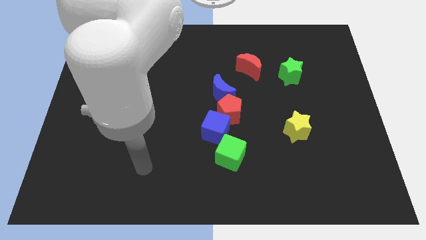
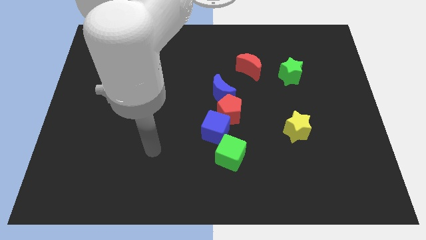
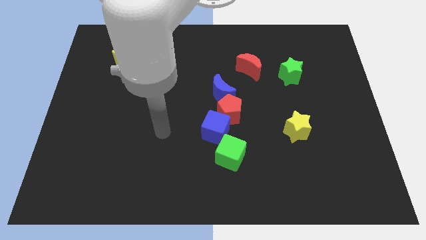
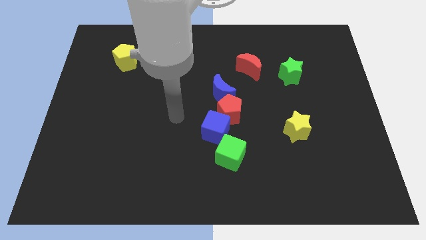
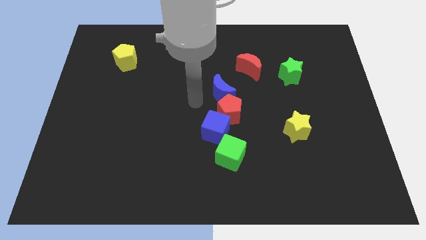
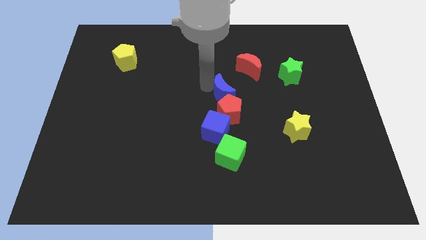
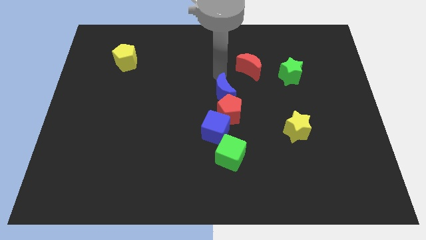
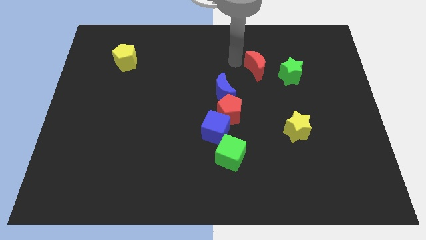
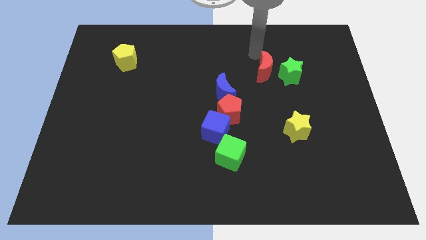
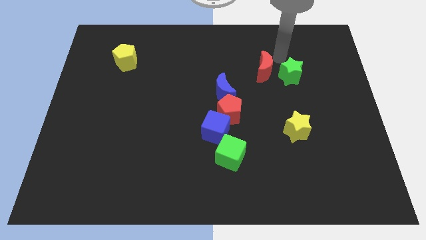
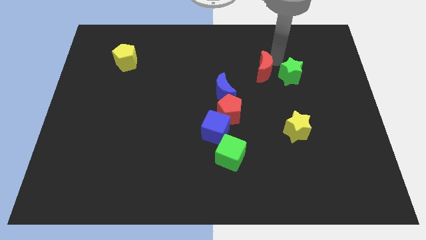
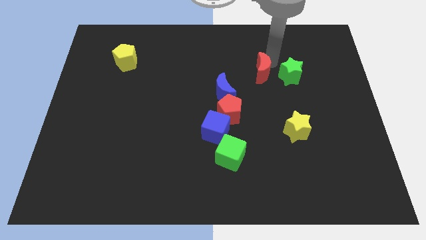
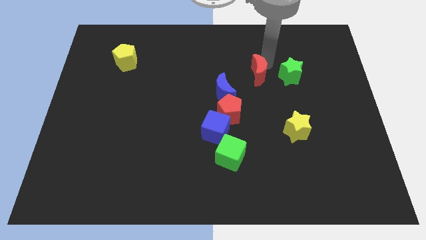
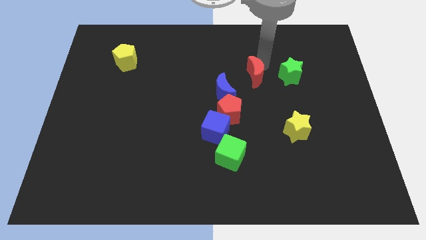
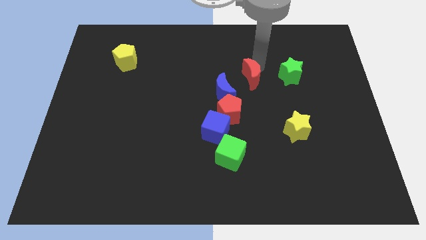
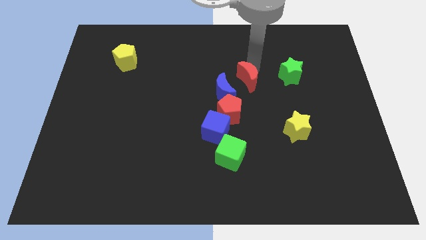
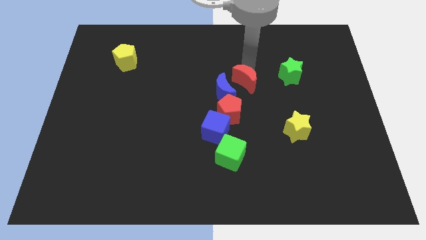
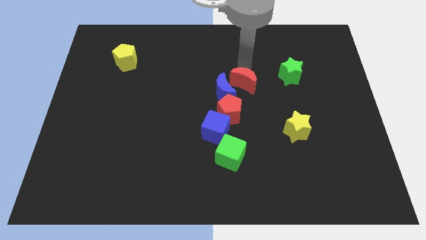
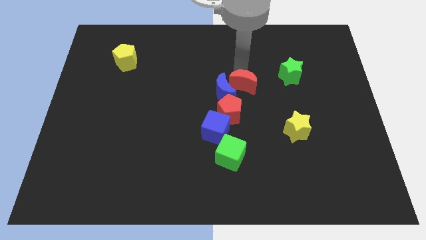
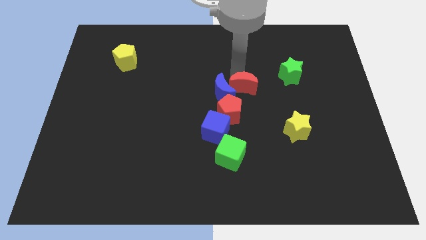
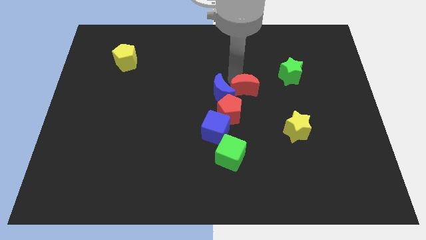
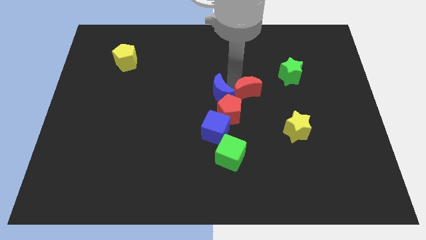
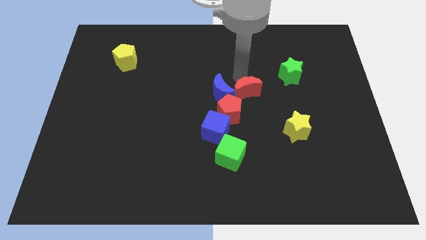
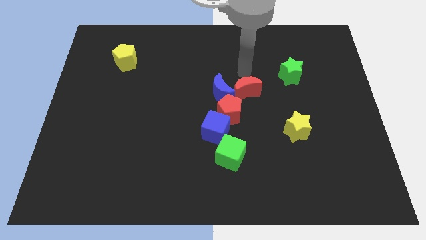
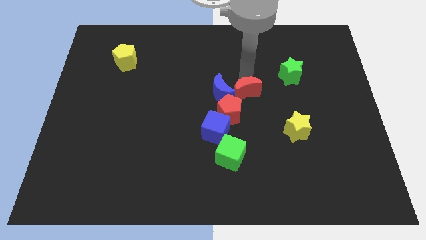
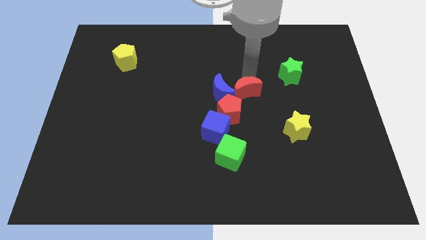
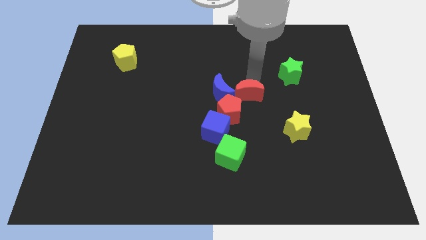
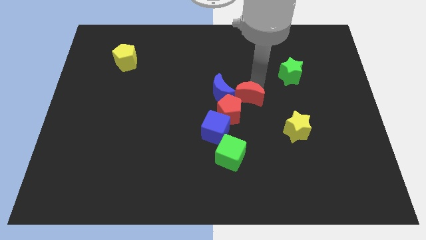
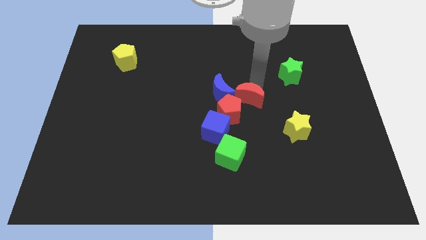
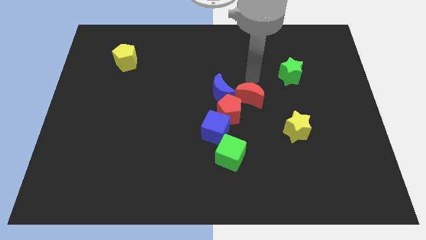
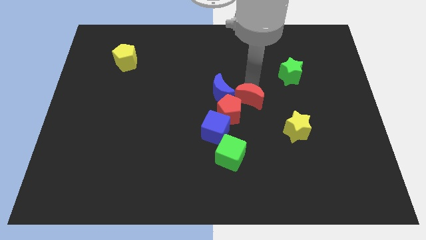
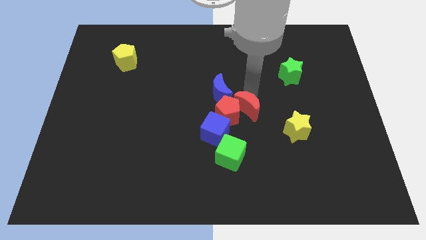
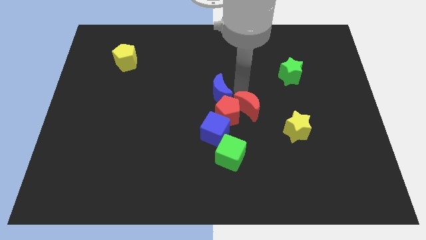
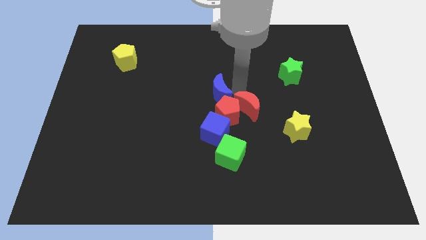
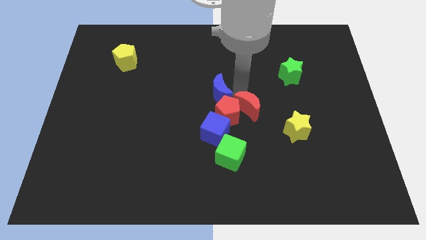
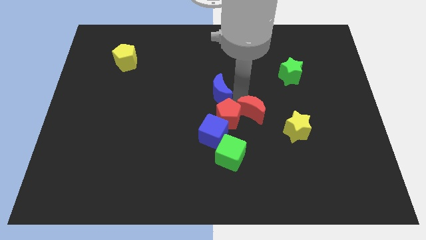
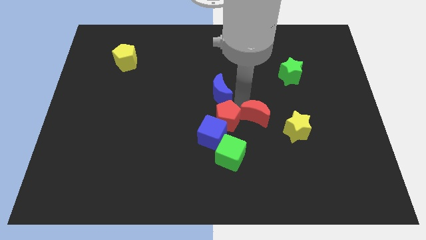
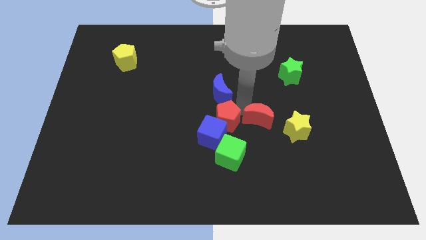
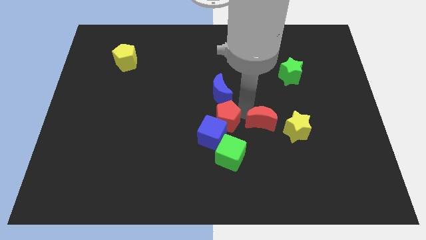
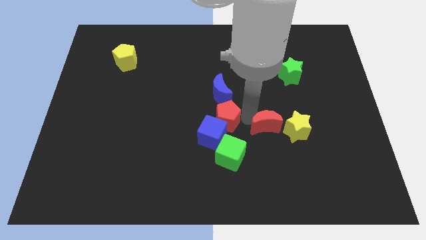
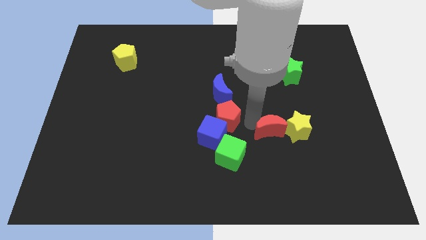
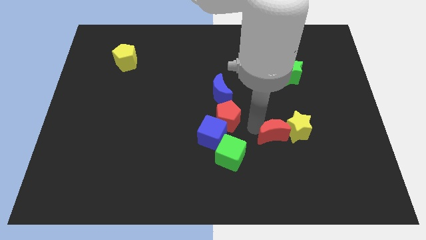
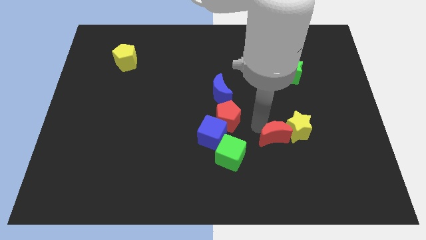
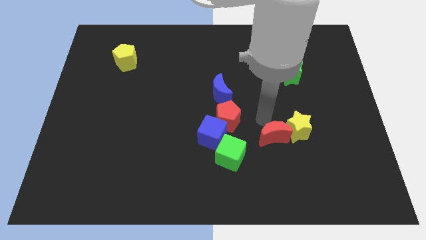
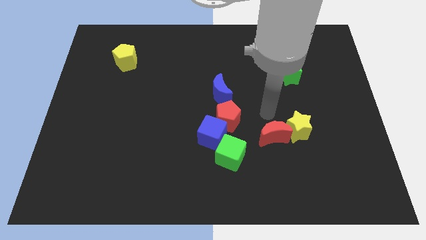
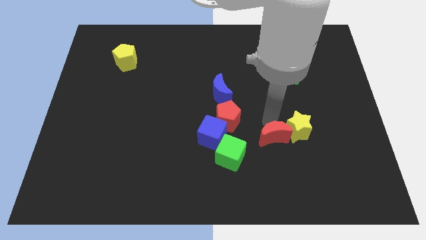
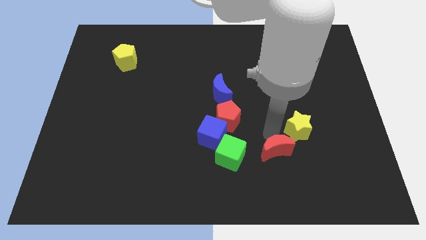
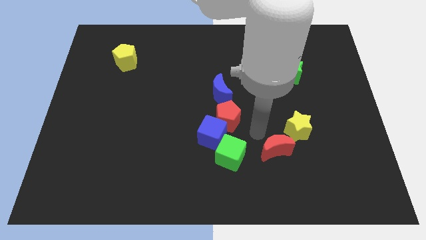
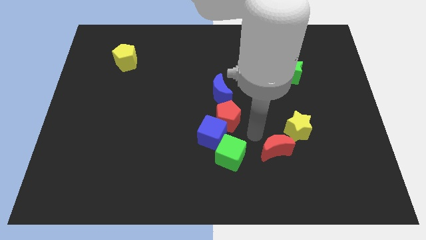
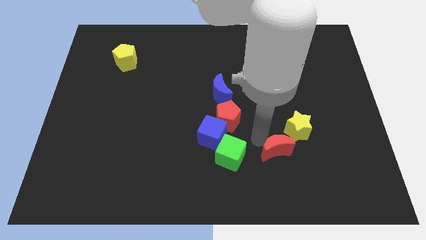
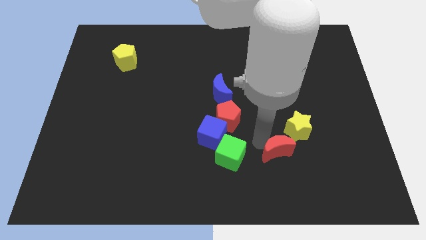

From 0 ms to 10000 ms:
slide the red moon below the yellow star

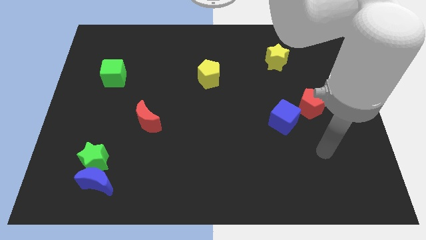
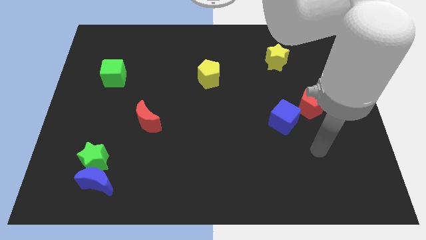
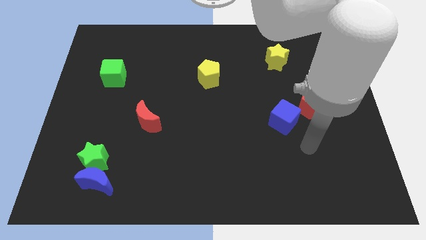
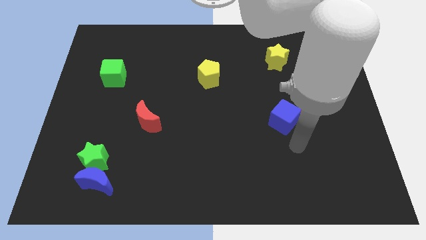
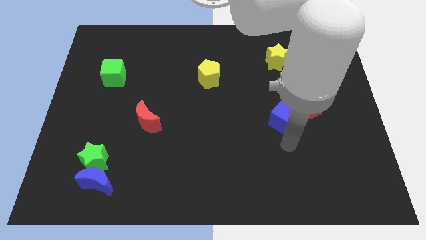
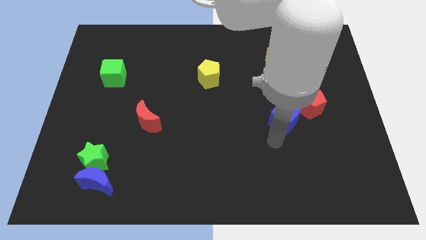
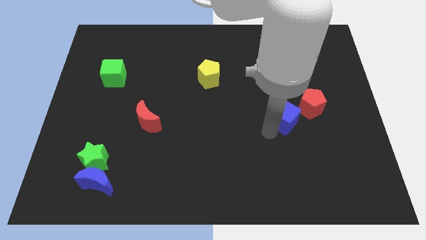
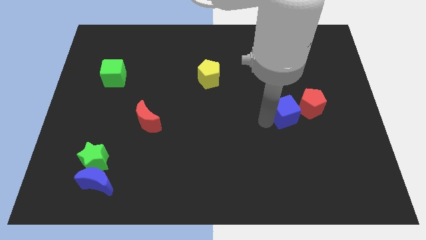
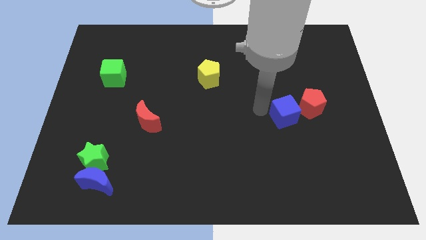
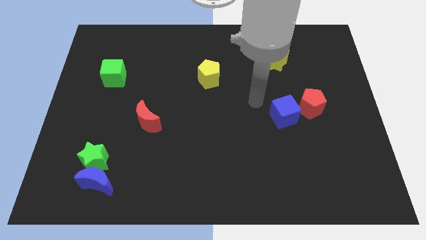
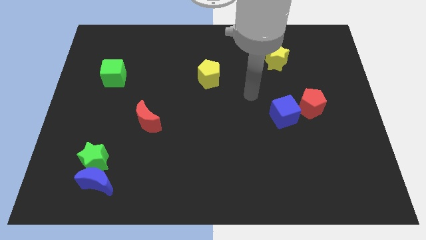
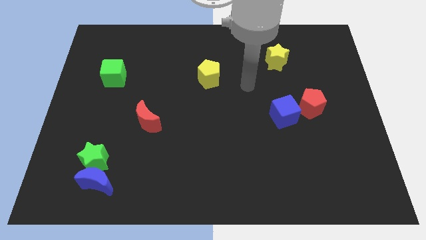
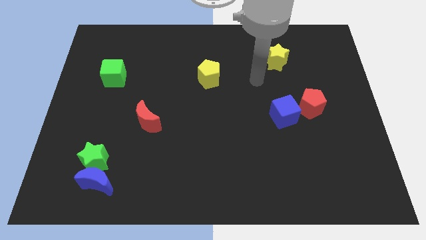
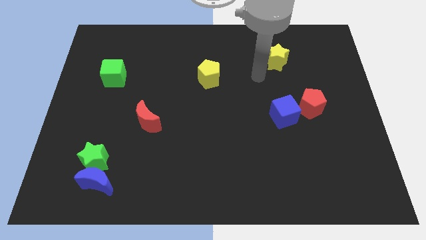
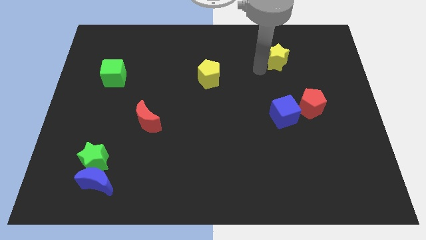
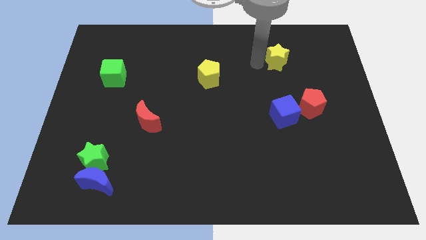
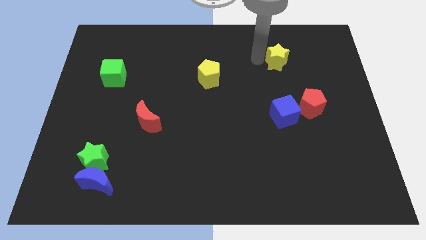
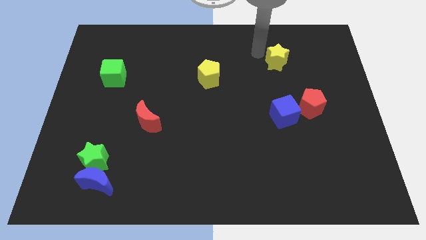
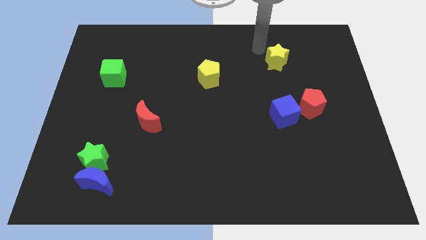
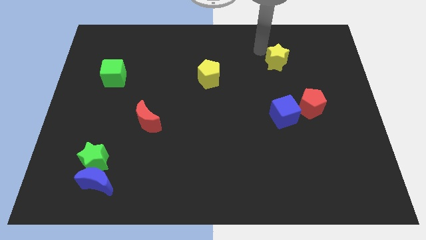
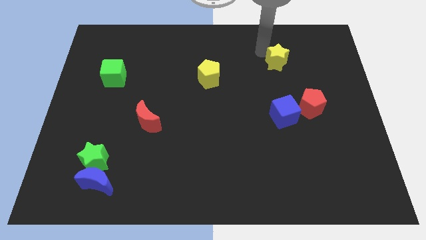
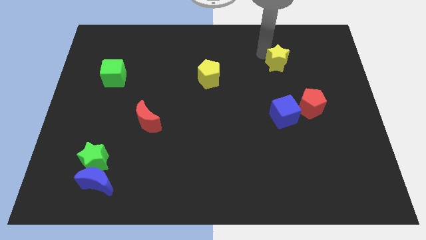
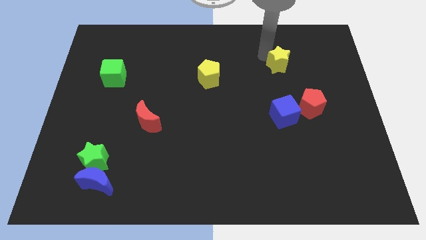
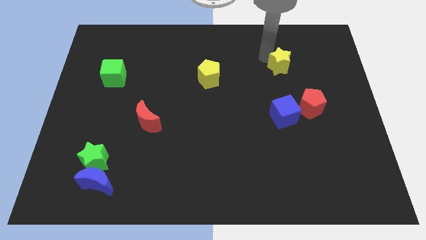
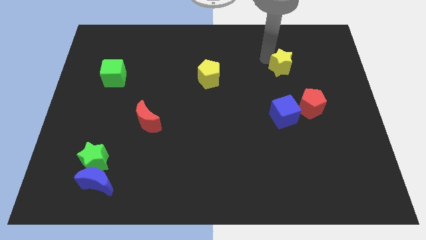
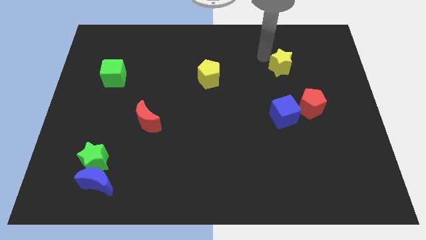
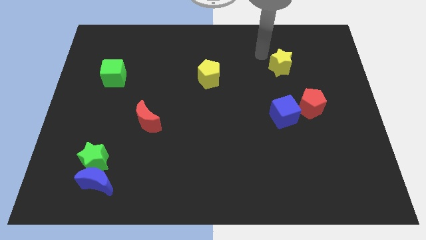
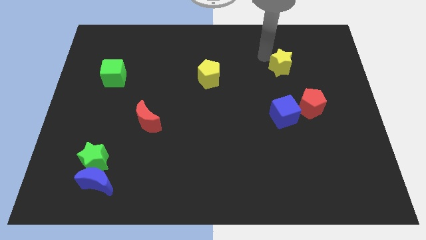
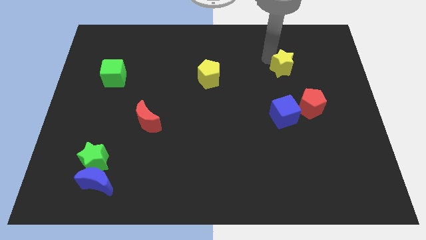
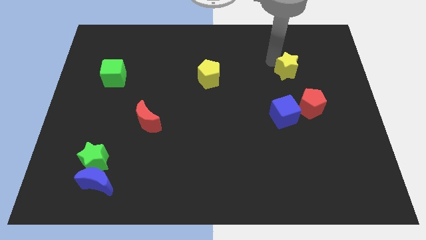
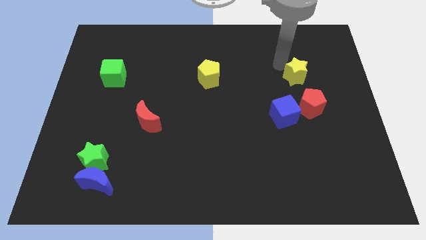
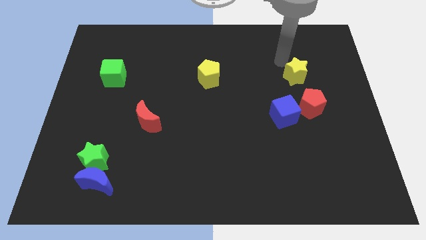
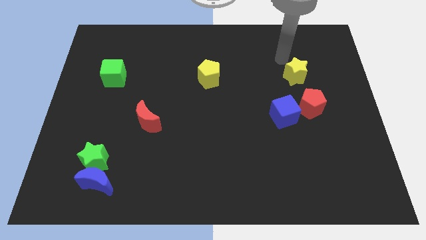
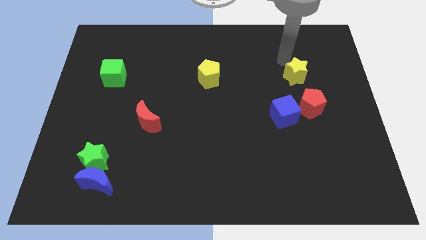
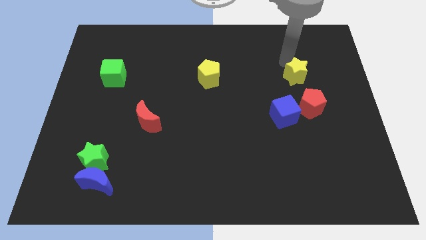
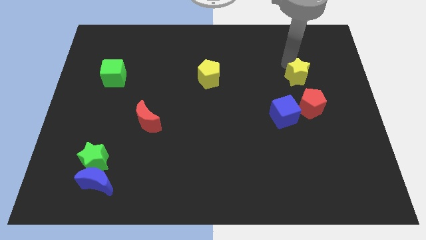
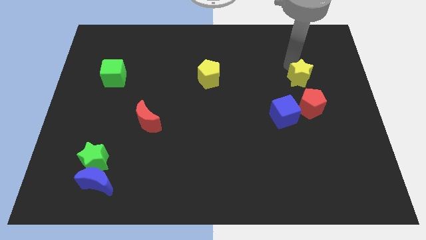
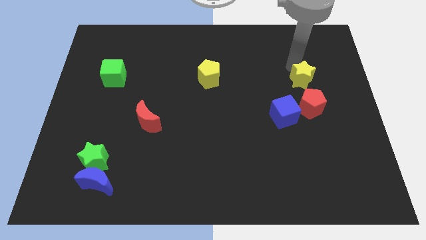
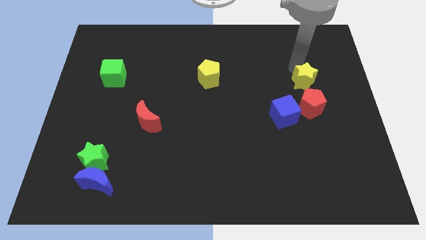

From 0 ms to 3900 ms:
move the yellow star to the top right of the blue cube
